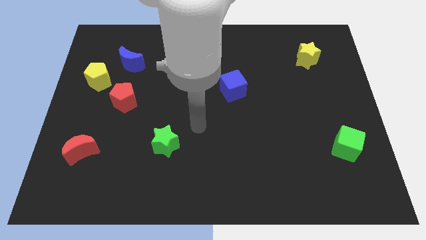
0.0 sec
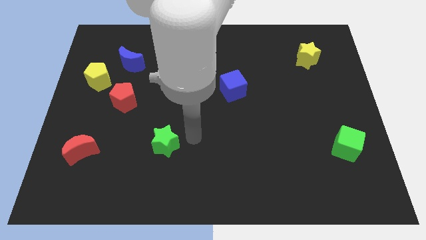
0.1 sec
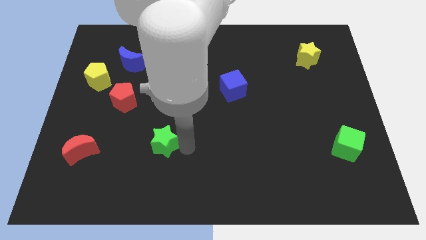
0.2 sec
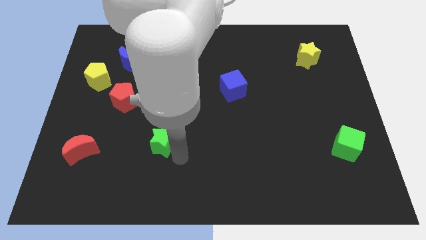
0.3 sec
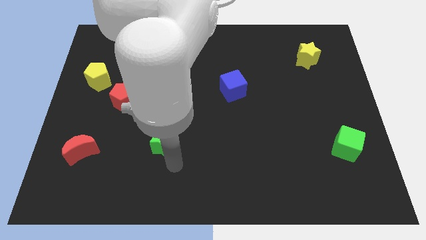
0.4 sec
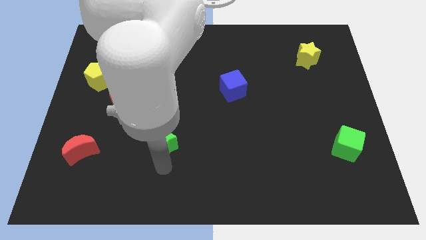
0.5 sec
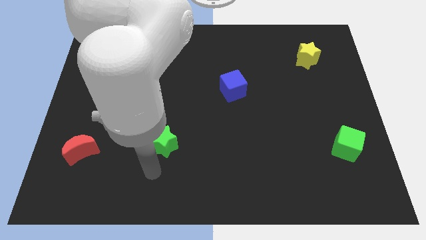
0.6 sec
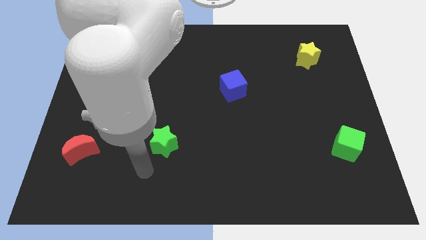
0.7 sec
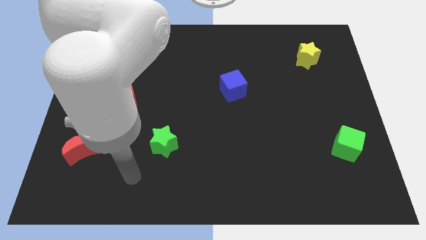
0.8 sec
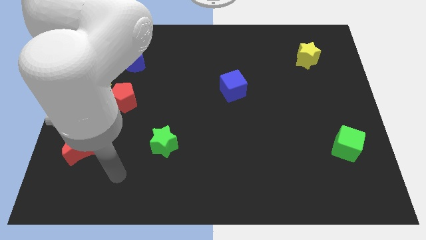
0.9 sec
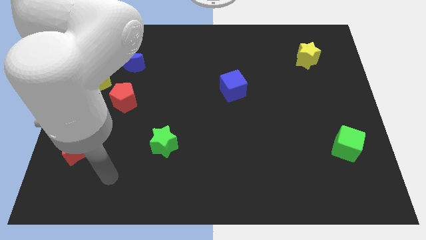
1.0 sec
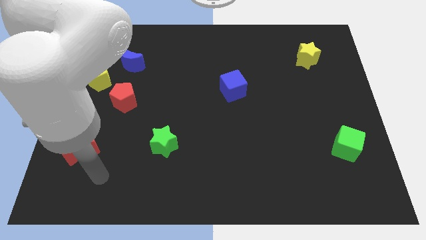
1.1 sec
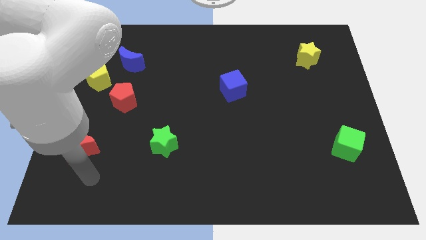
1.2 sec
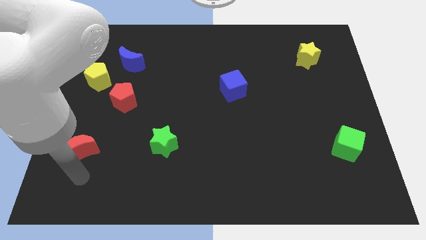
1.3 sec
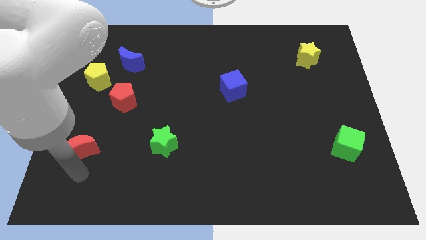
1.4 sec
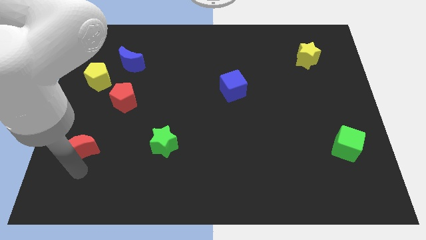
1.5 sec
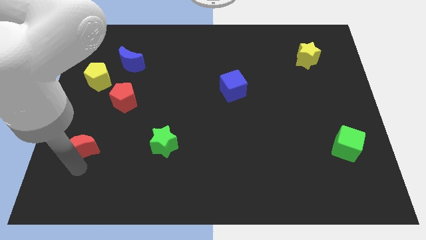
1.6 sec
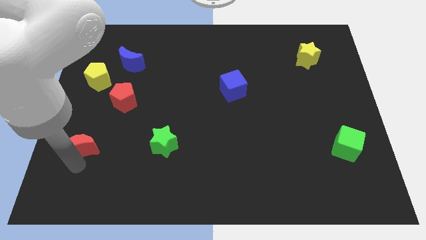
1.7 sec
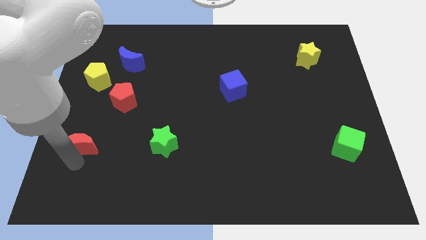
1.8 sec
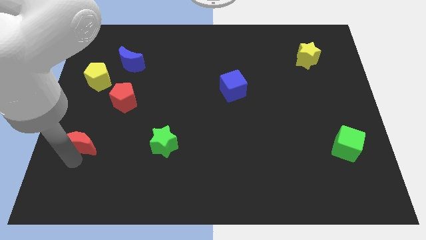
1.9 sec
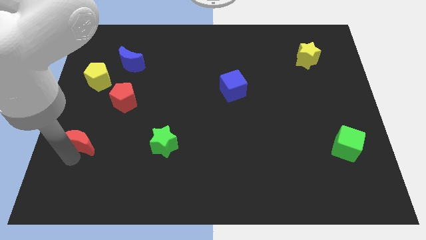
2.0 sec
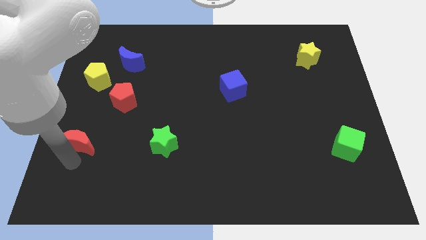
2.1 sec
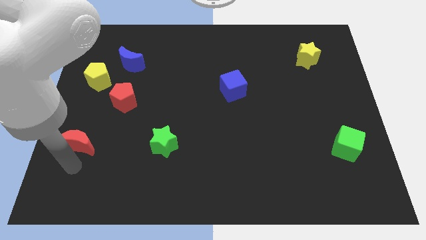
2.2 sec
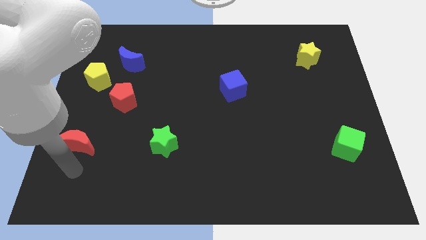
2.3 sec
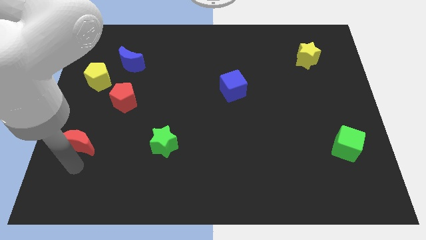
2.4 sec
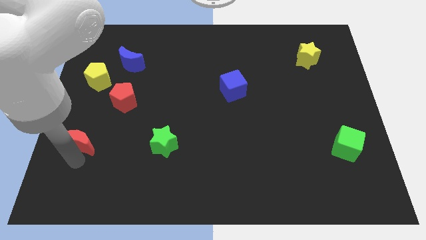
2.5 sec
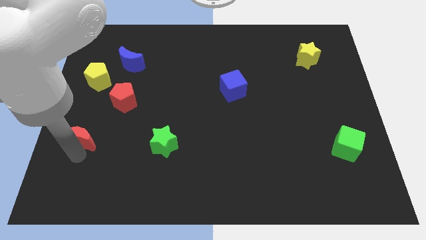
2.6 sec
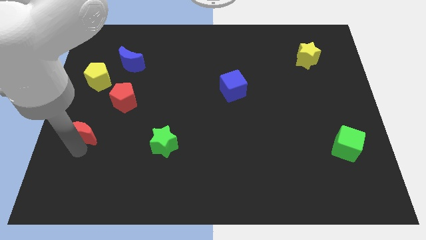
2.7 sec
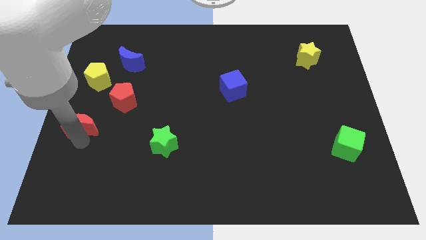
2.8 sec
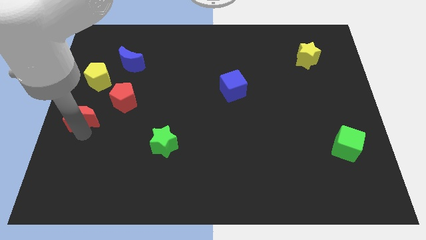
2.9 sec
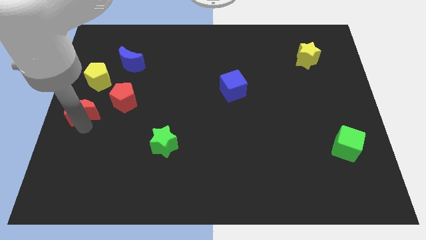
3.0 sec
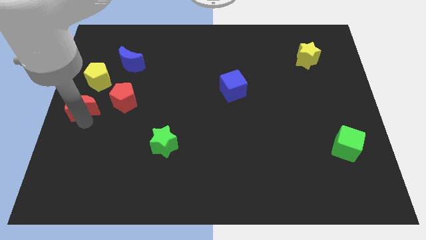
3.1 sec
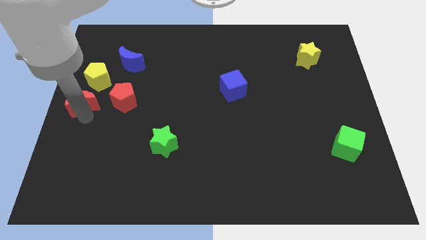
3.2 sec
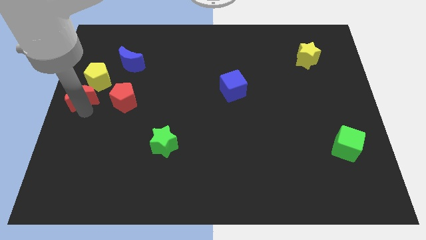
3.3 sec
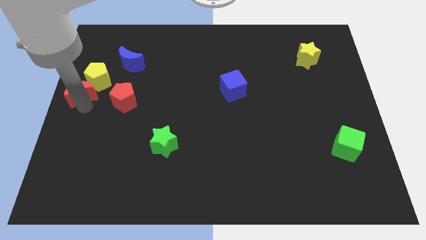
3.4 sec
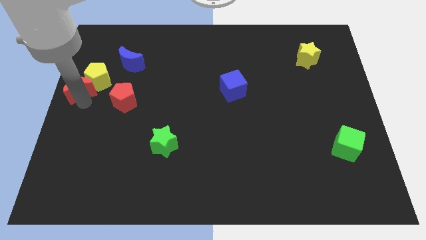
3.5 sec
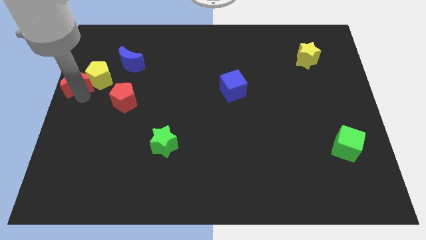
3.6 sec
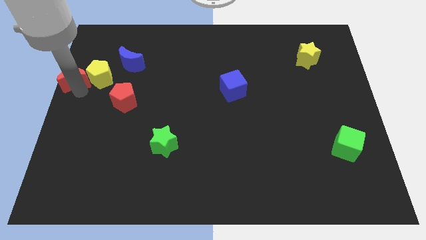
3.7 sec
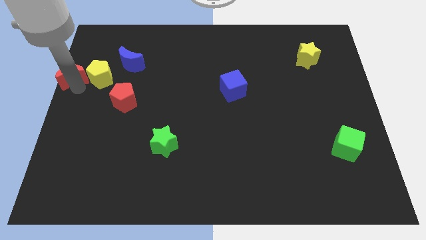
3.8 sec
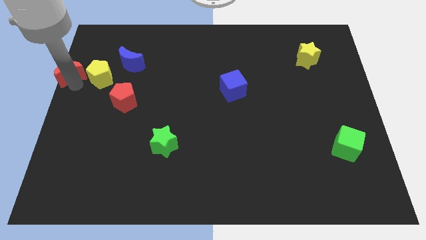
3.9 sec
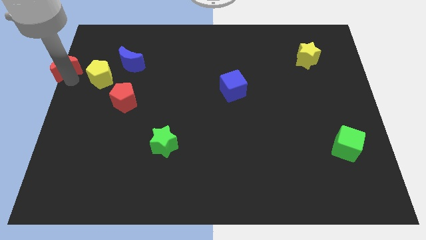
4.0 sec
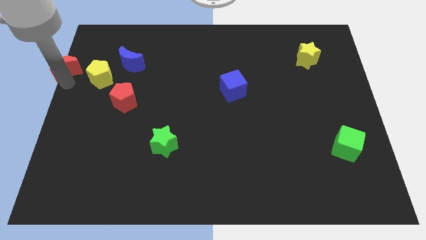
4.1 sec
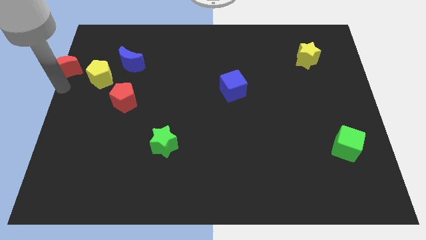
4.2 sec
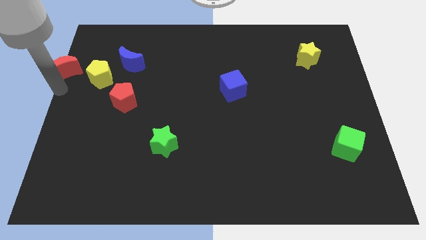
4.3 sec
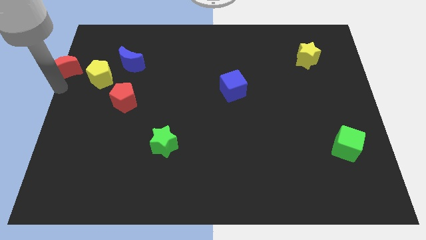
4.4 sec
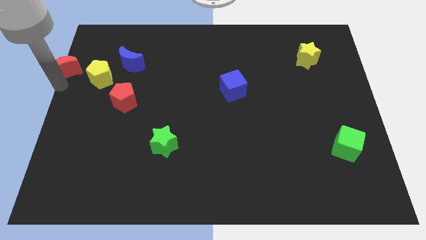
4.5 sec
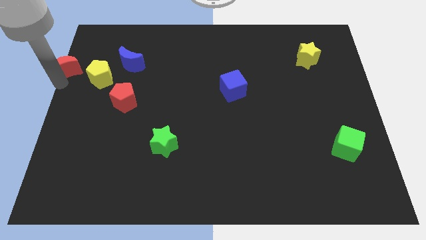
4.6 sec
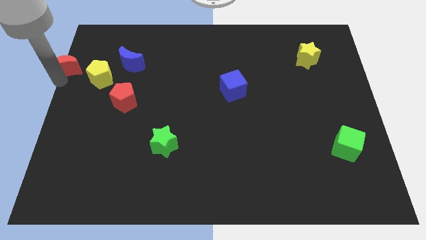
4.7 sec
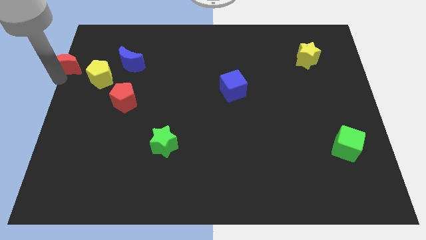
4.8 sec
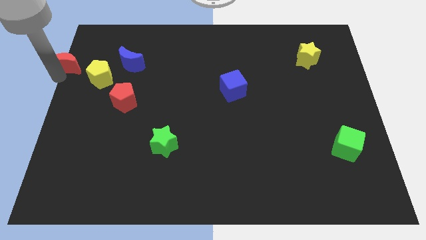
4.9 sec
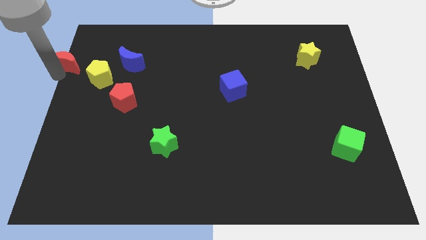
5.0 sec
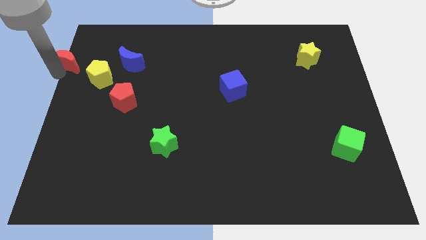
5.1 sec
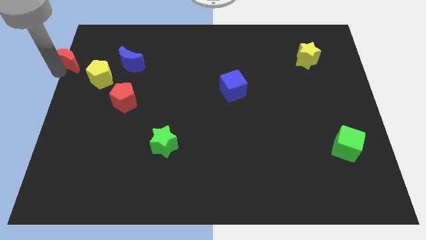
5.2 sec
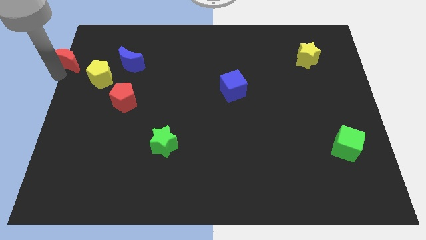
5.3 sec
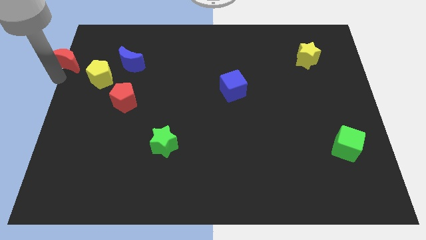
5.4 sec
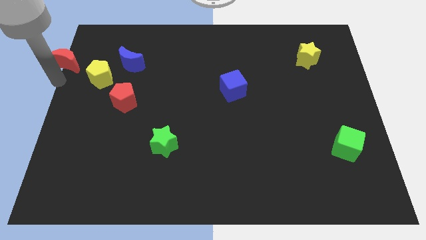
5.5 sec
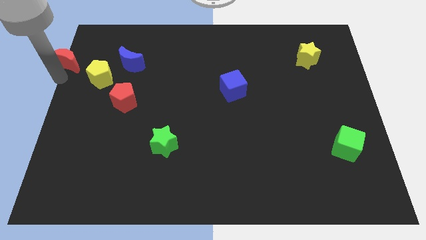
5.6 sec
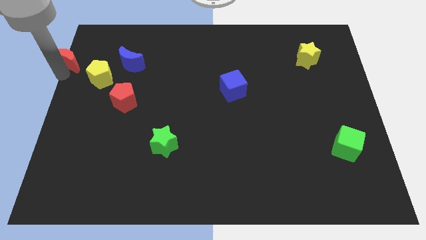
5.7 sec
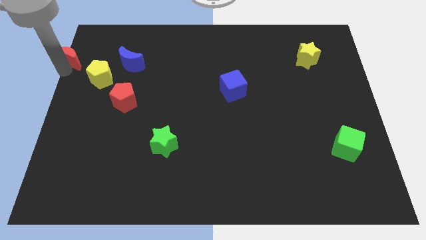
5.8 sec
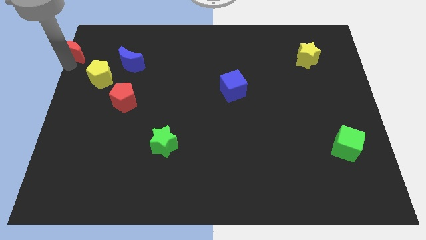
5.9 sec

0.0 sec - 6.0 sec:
put the red moon to the top left corner

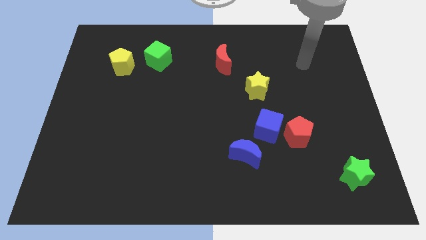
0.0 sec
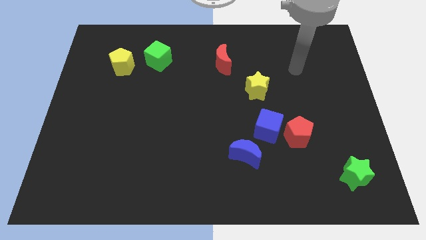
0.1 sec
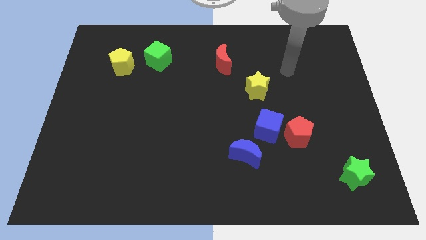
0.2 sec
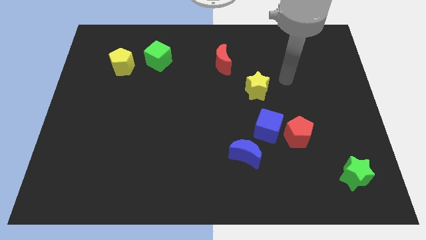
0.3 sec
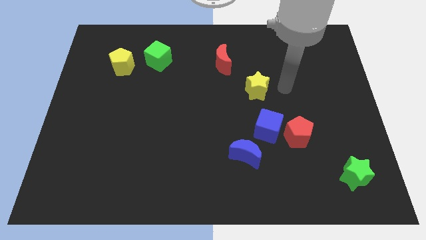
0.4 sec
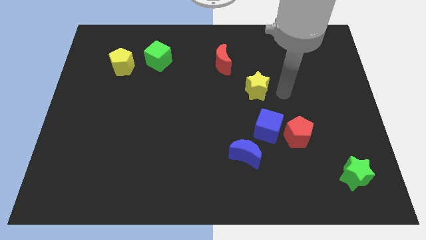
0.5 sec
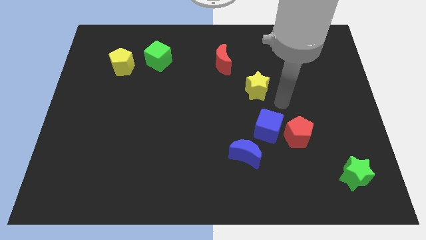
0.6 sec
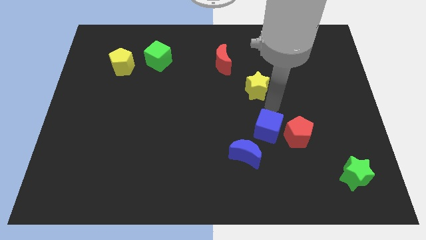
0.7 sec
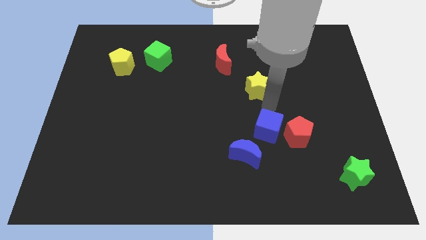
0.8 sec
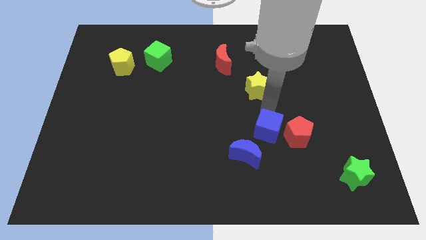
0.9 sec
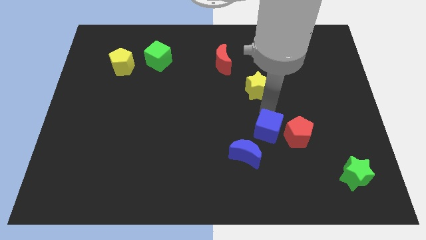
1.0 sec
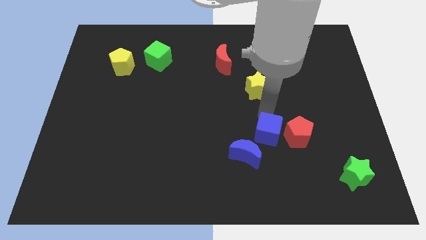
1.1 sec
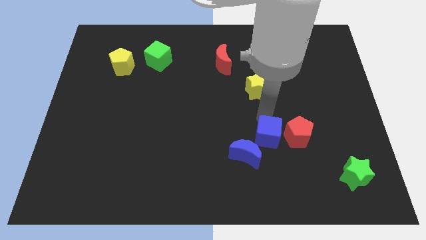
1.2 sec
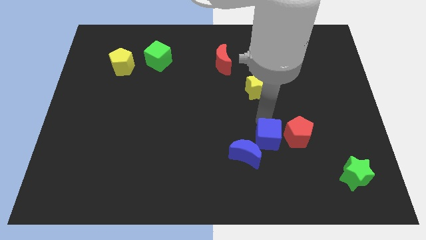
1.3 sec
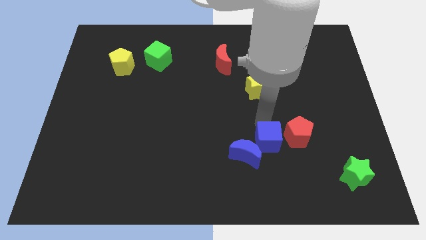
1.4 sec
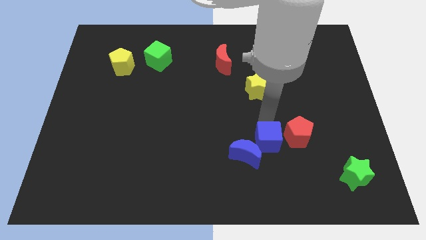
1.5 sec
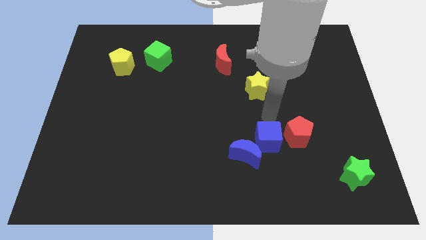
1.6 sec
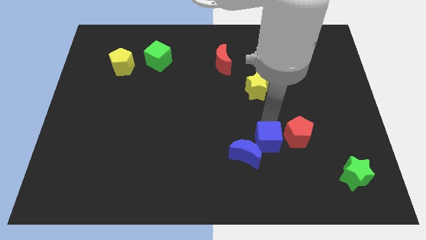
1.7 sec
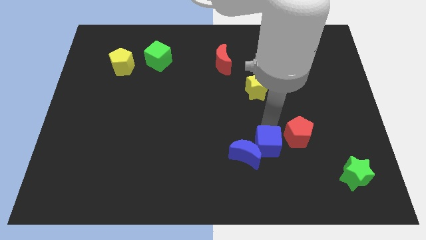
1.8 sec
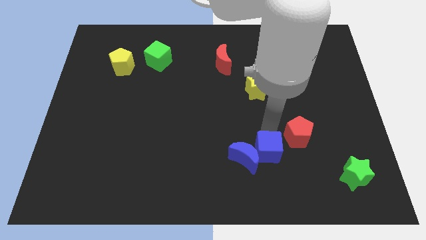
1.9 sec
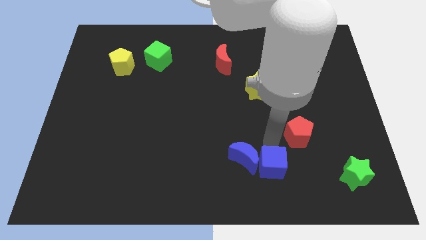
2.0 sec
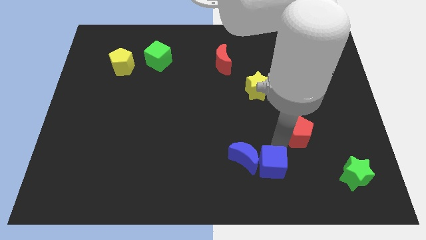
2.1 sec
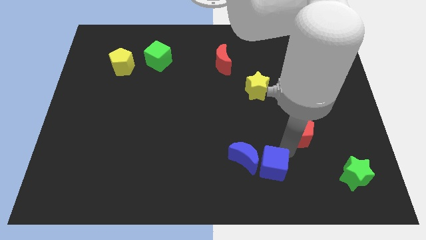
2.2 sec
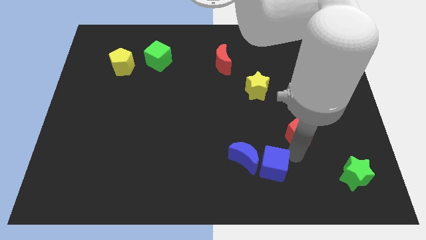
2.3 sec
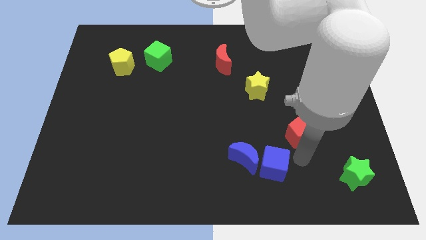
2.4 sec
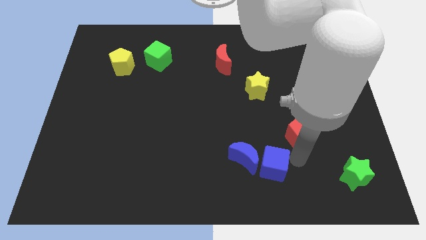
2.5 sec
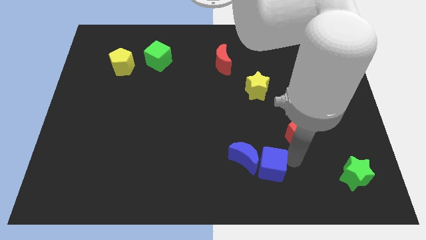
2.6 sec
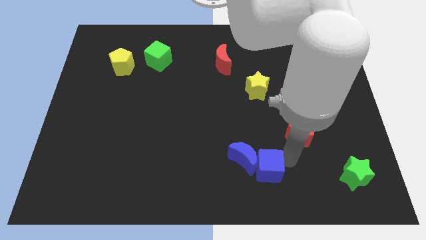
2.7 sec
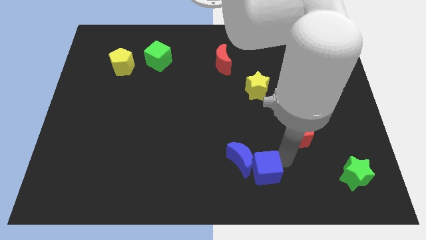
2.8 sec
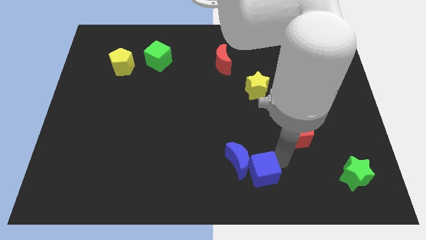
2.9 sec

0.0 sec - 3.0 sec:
put the blue cube to the bottom side
